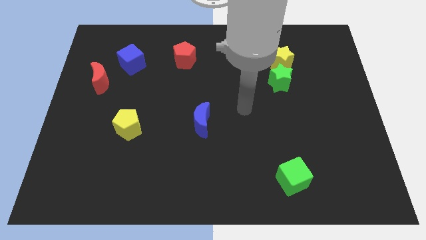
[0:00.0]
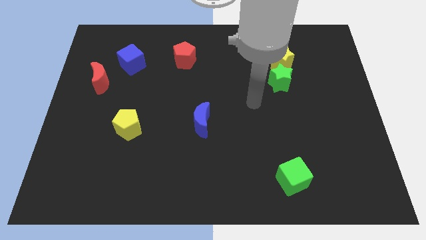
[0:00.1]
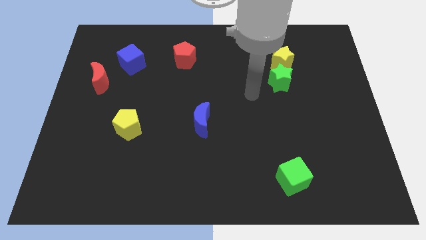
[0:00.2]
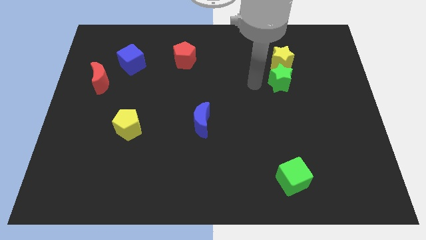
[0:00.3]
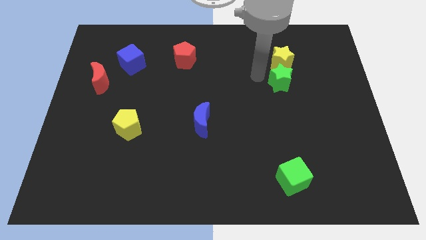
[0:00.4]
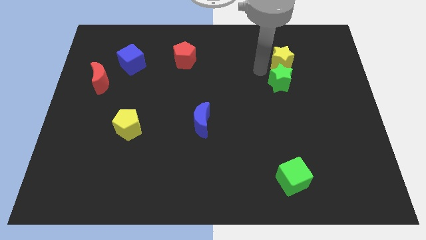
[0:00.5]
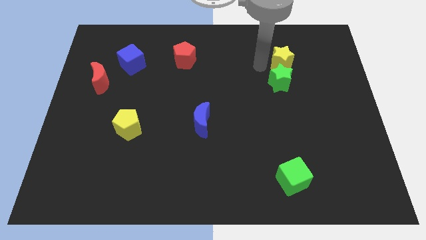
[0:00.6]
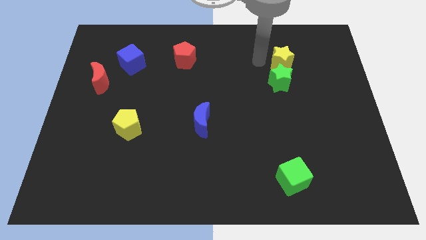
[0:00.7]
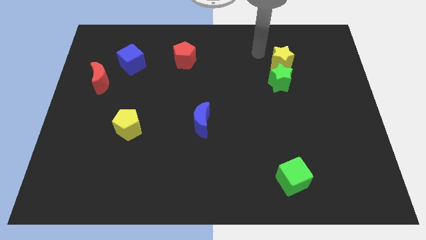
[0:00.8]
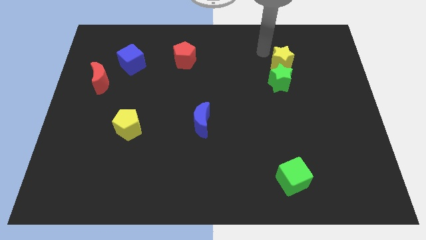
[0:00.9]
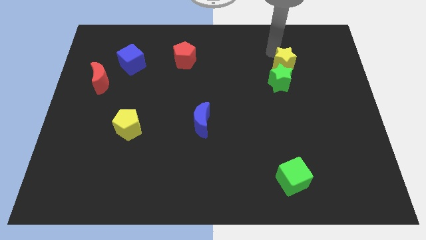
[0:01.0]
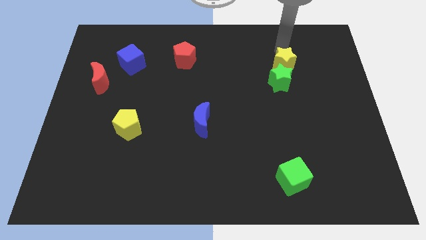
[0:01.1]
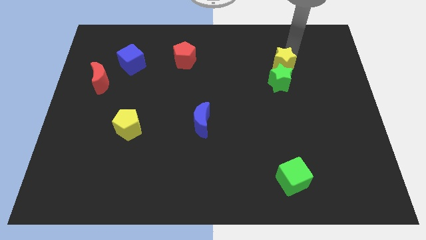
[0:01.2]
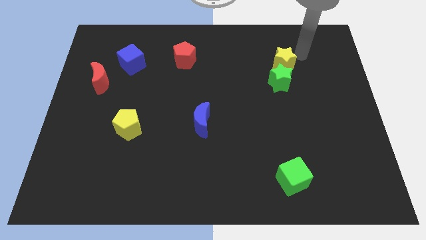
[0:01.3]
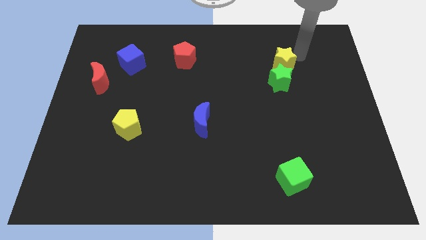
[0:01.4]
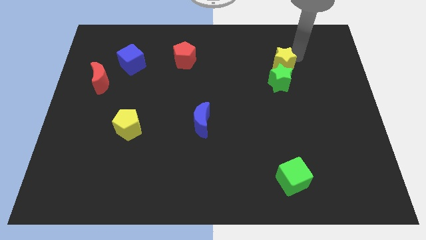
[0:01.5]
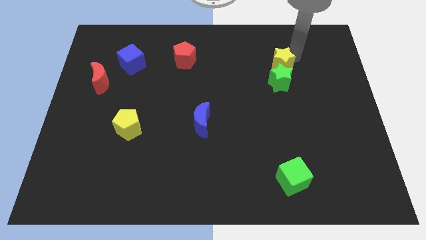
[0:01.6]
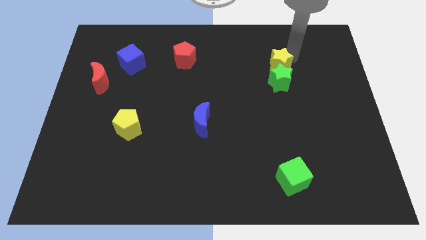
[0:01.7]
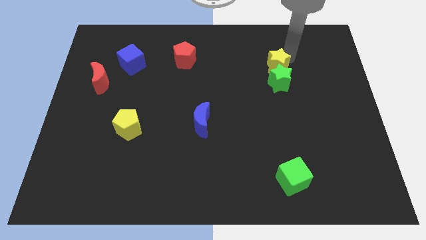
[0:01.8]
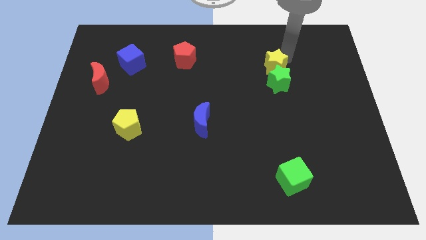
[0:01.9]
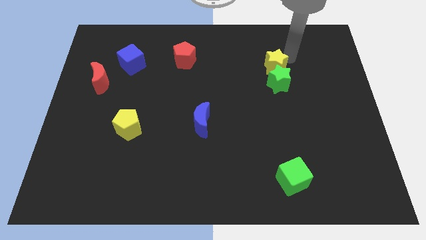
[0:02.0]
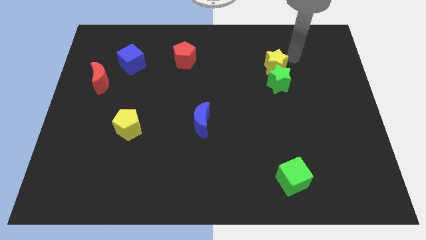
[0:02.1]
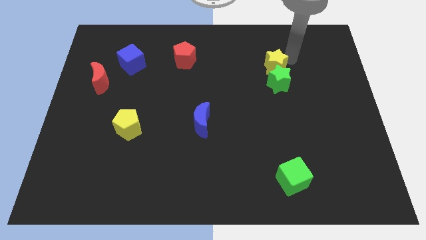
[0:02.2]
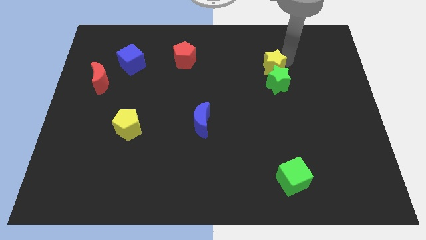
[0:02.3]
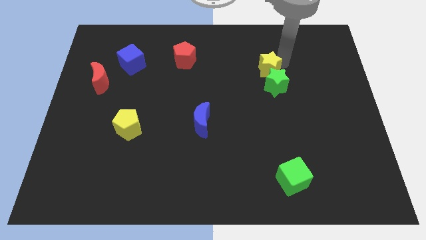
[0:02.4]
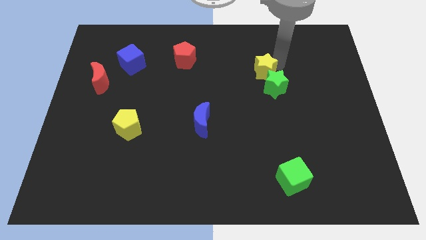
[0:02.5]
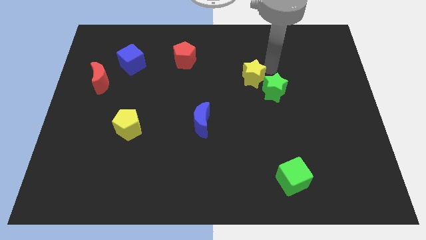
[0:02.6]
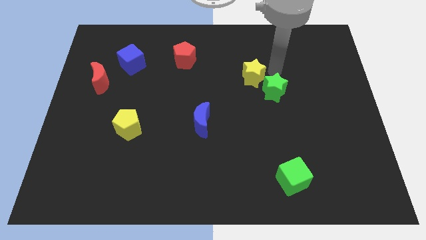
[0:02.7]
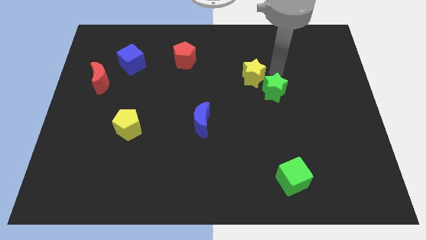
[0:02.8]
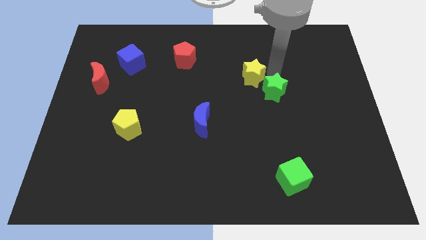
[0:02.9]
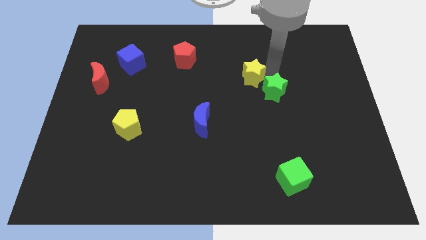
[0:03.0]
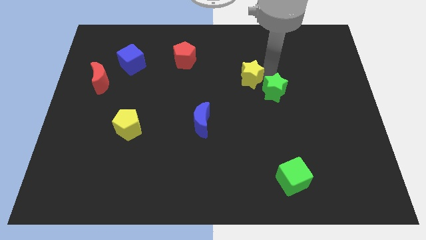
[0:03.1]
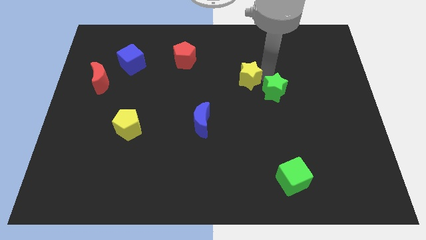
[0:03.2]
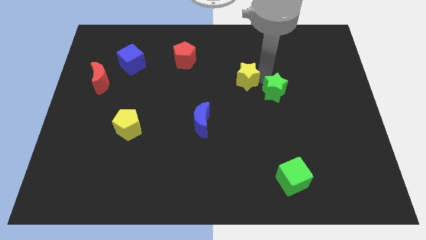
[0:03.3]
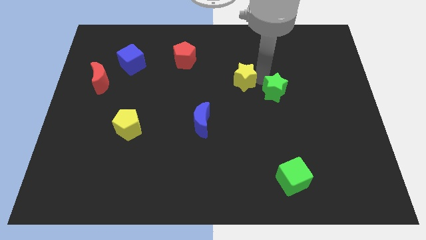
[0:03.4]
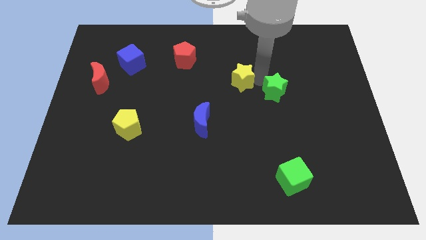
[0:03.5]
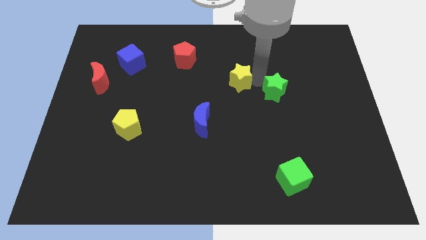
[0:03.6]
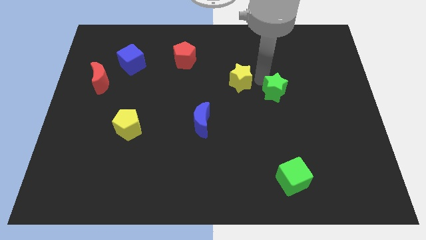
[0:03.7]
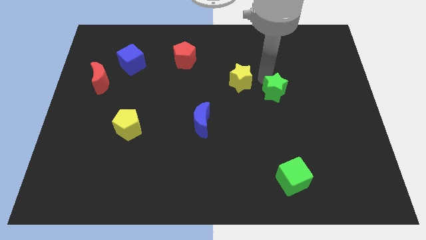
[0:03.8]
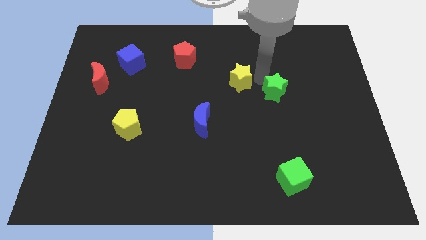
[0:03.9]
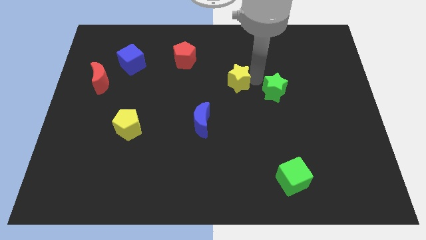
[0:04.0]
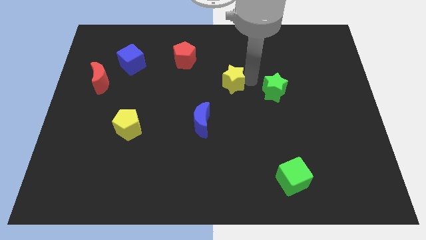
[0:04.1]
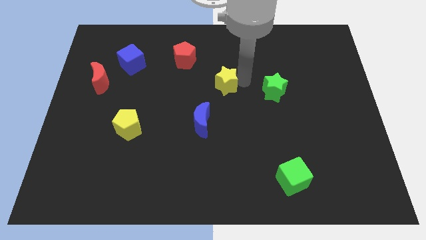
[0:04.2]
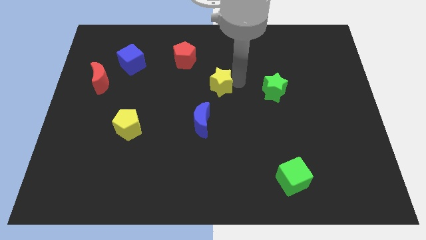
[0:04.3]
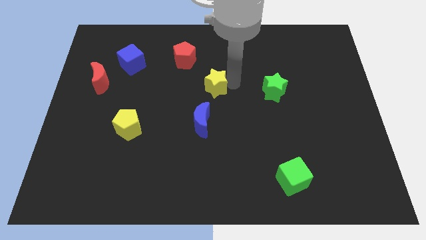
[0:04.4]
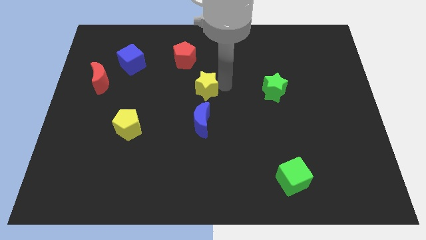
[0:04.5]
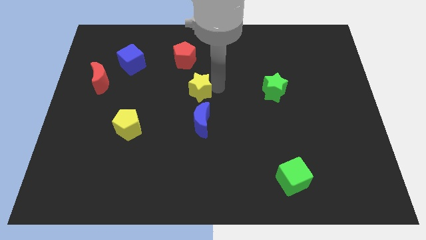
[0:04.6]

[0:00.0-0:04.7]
slide the yellow star to the bottom side of the red pentagon

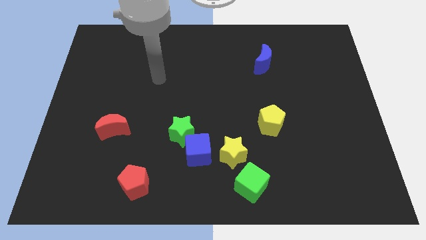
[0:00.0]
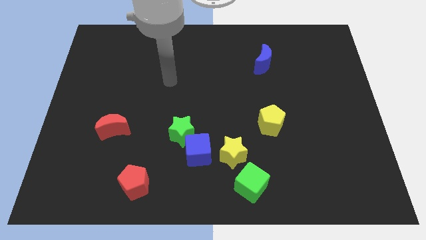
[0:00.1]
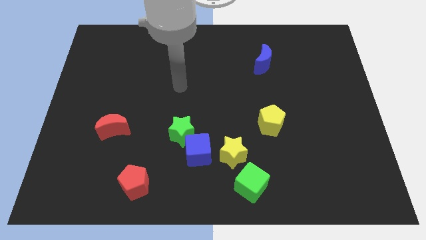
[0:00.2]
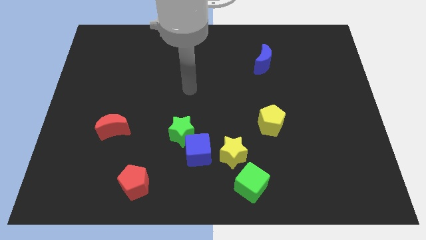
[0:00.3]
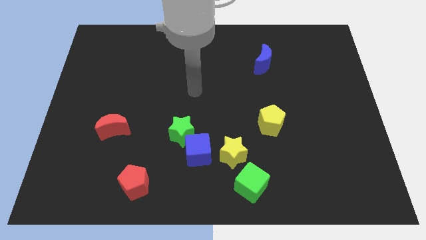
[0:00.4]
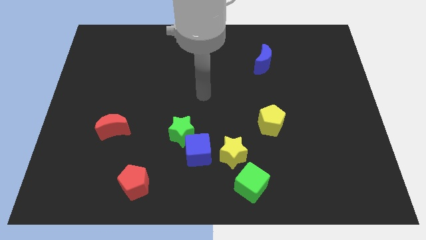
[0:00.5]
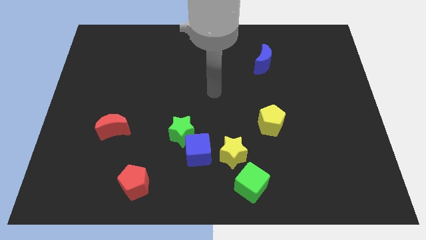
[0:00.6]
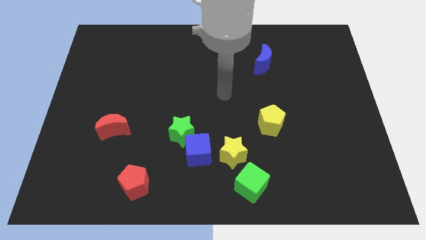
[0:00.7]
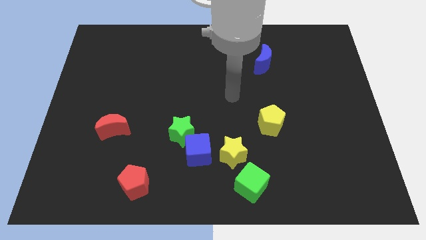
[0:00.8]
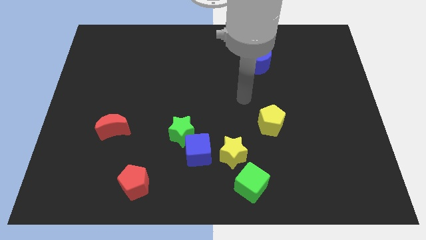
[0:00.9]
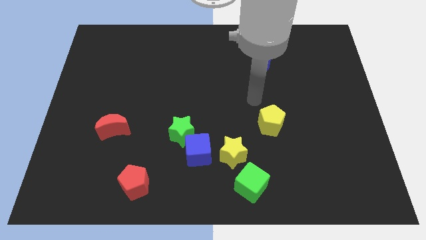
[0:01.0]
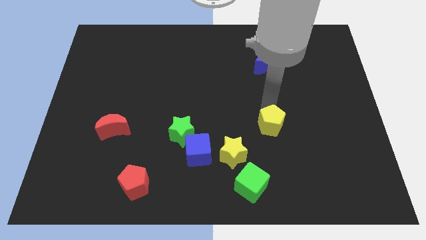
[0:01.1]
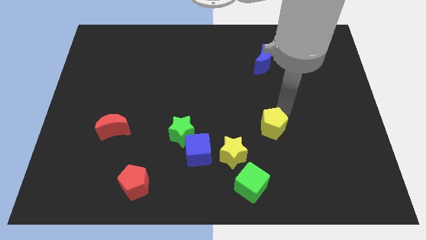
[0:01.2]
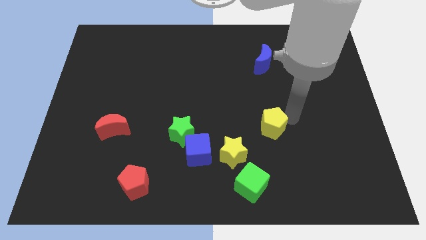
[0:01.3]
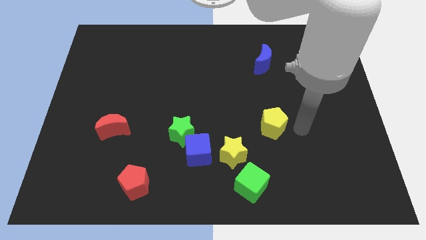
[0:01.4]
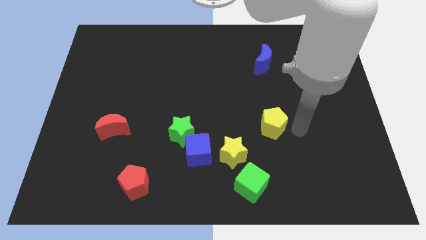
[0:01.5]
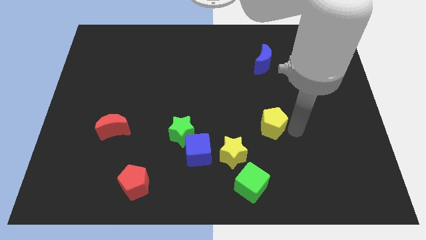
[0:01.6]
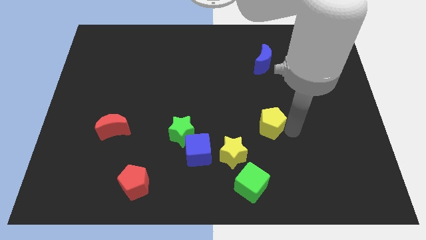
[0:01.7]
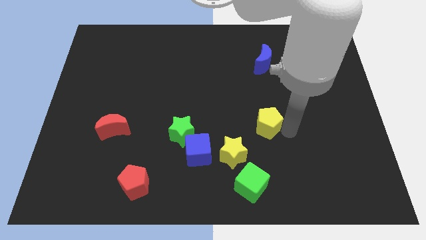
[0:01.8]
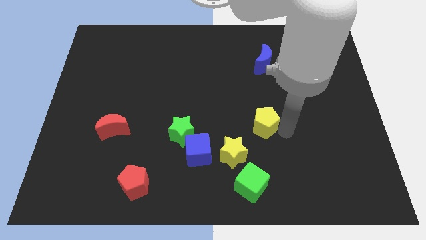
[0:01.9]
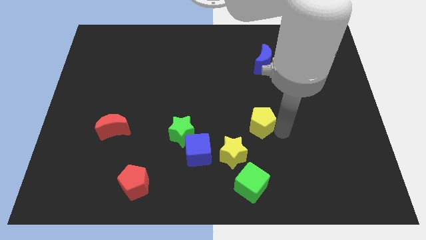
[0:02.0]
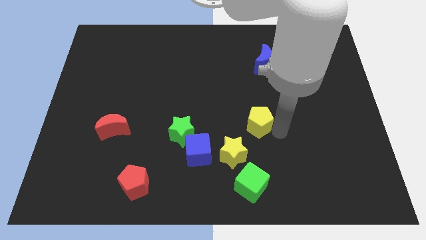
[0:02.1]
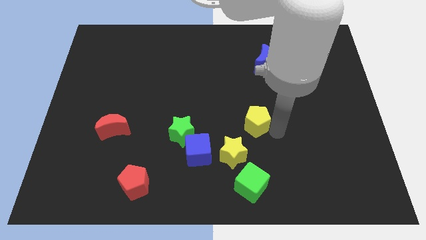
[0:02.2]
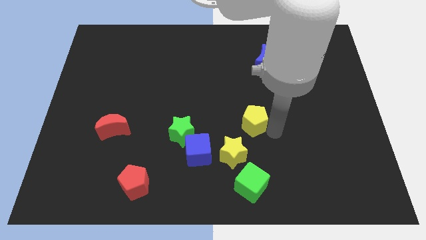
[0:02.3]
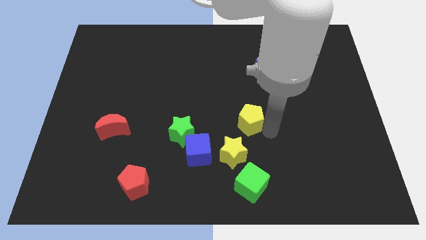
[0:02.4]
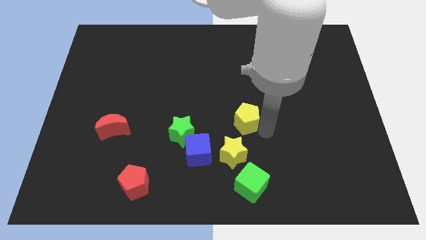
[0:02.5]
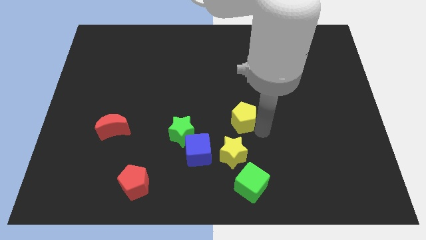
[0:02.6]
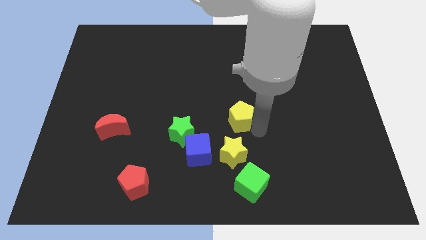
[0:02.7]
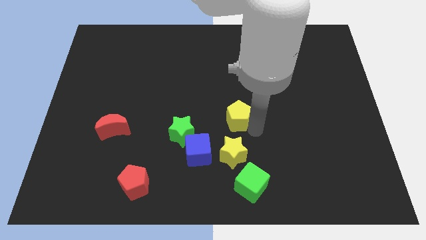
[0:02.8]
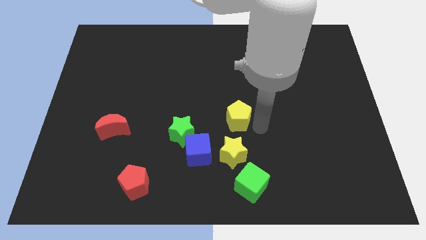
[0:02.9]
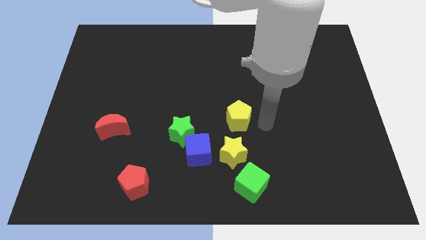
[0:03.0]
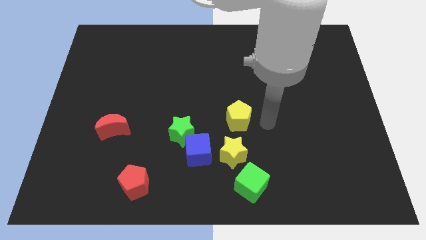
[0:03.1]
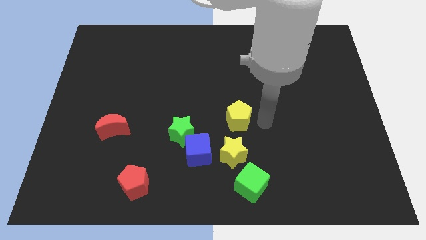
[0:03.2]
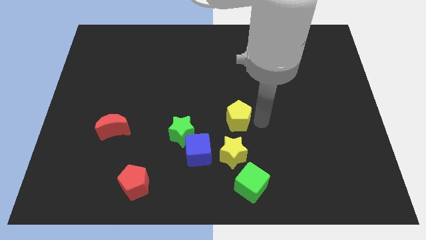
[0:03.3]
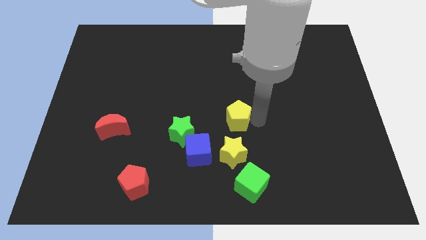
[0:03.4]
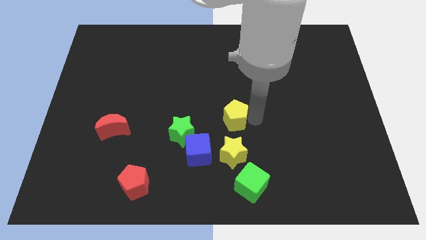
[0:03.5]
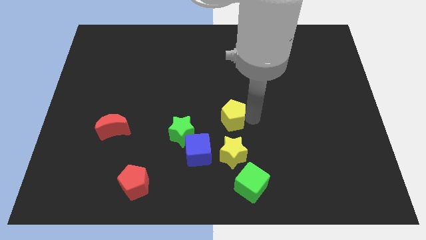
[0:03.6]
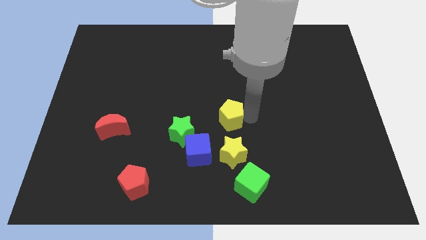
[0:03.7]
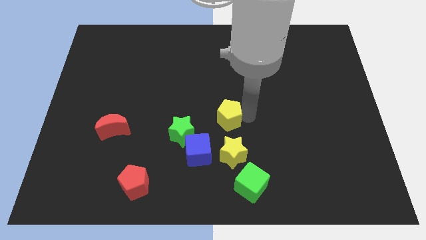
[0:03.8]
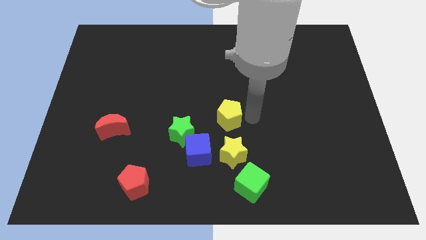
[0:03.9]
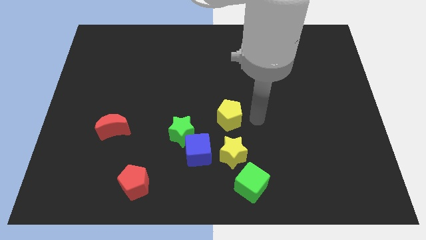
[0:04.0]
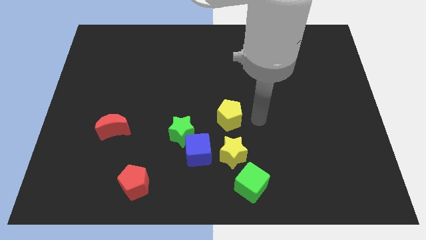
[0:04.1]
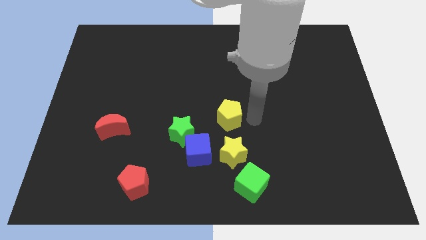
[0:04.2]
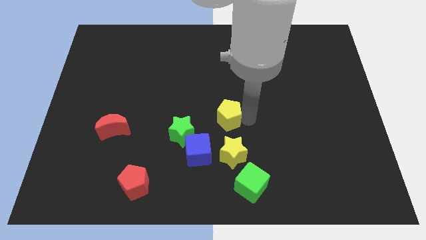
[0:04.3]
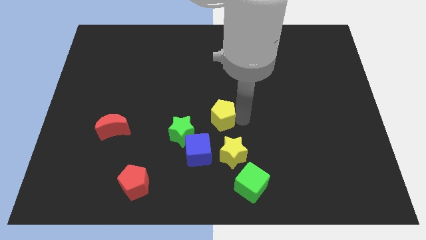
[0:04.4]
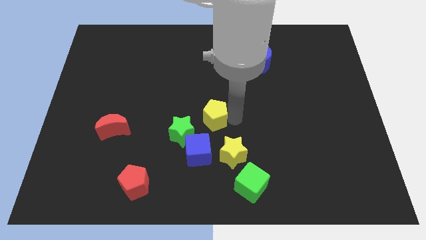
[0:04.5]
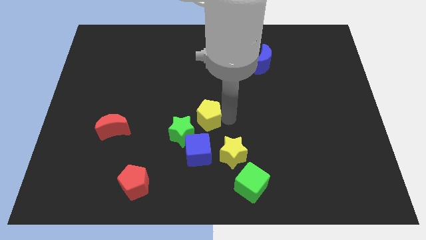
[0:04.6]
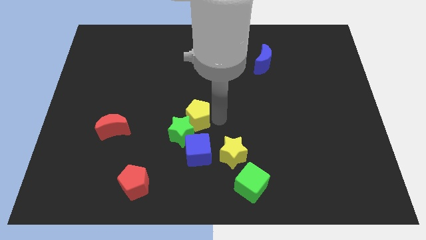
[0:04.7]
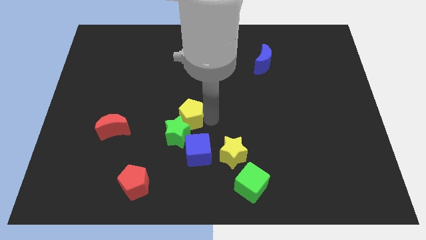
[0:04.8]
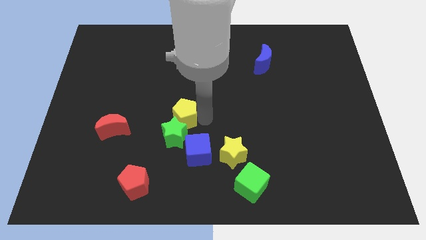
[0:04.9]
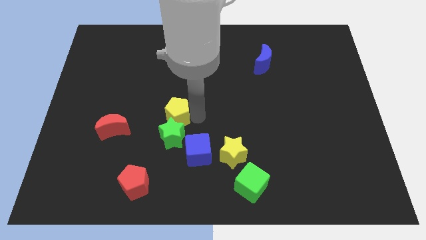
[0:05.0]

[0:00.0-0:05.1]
push the yellow pentagon to the right side of the red moon
